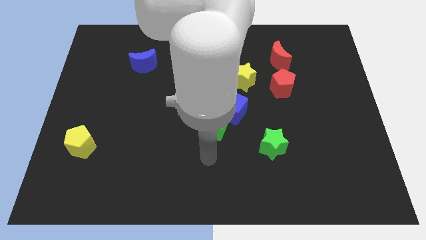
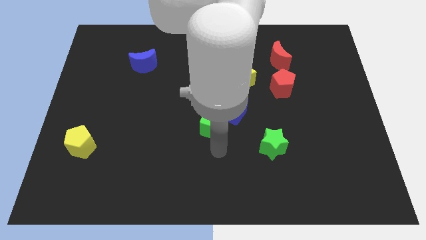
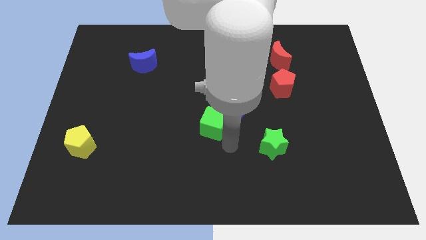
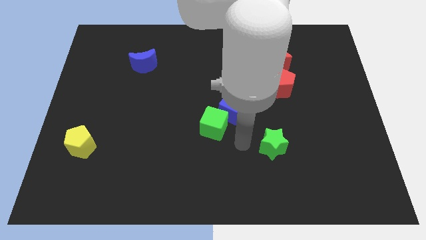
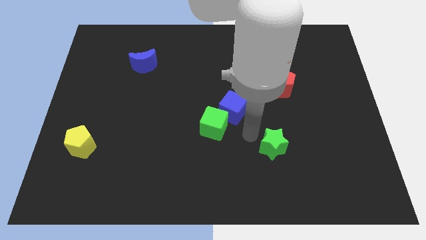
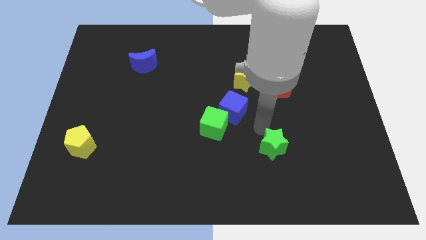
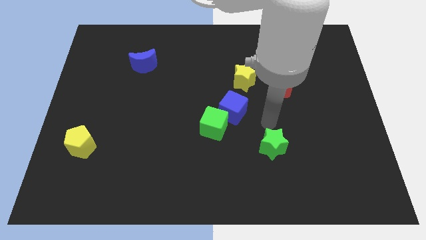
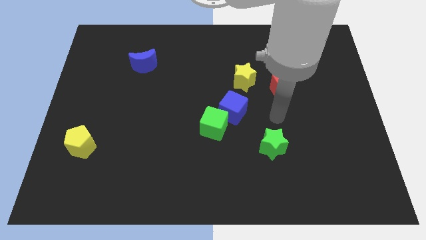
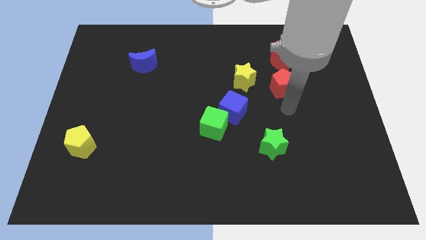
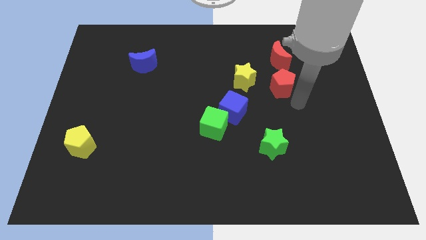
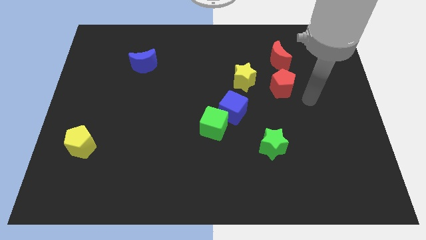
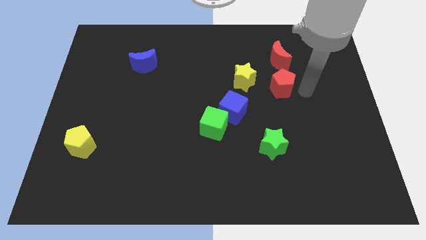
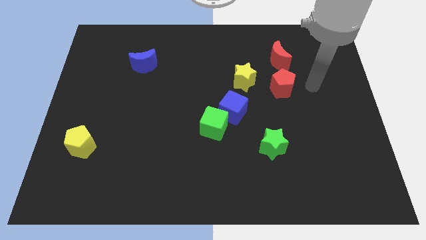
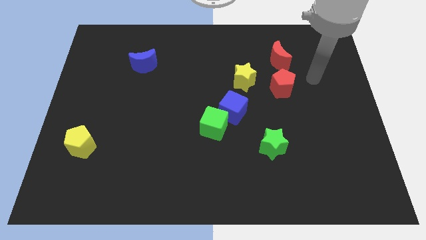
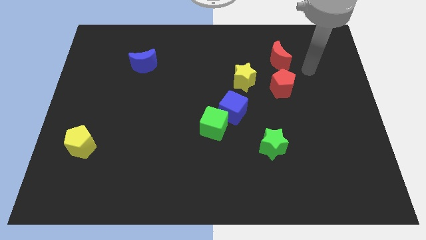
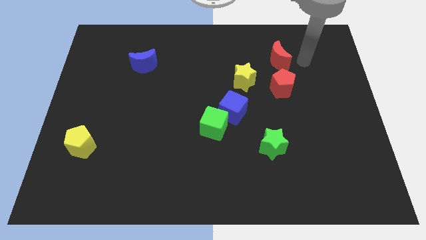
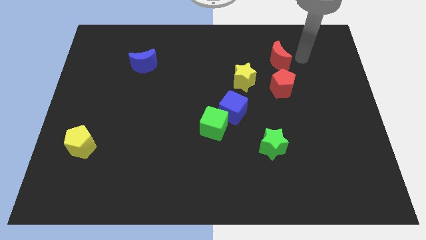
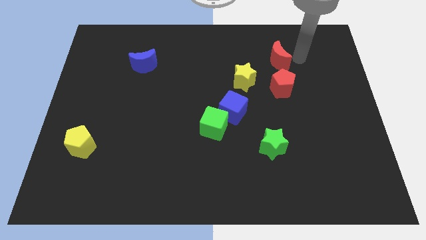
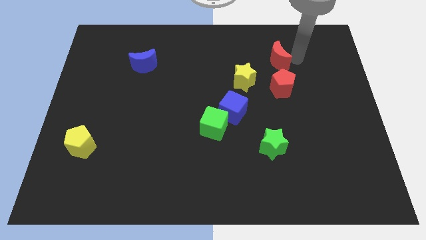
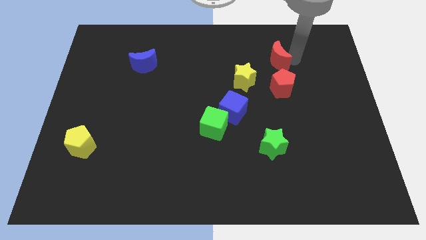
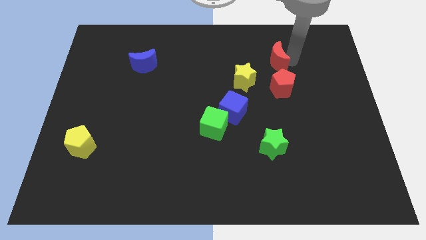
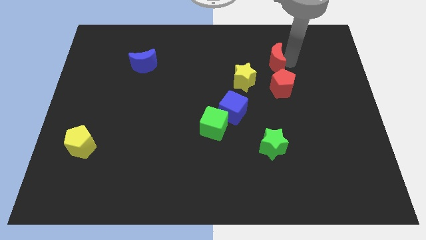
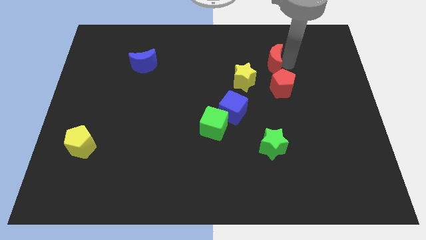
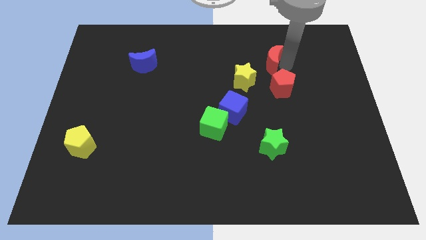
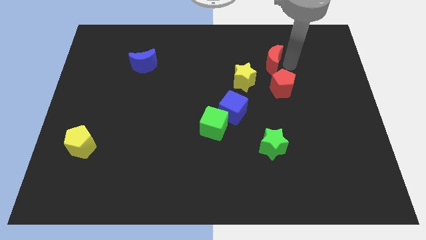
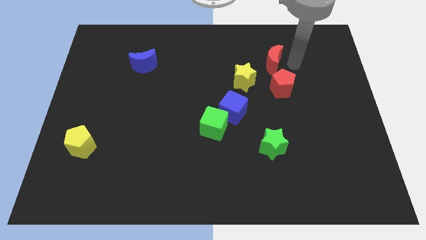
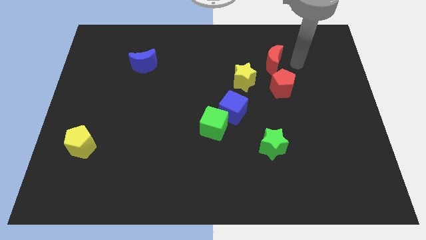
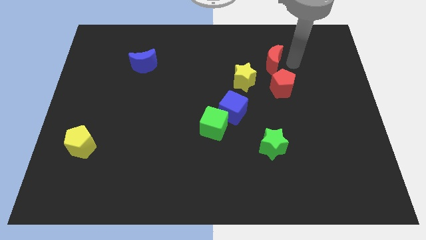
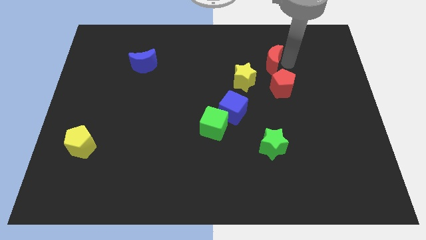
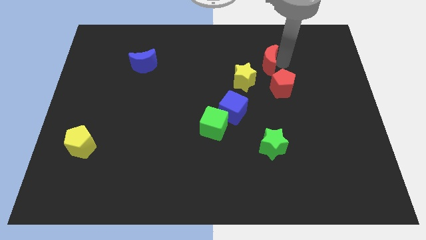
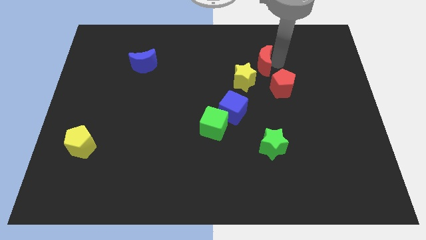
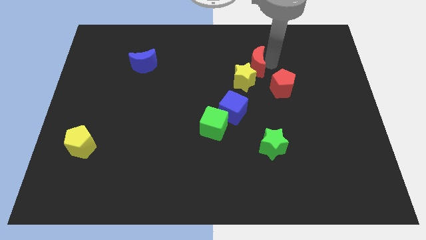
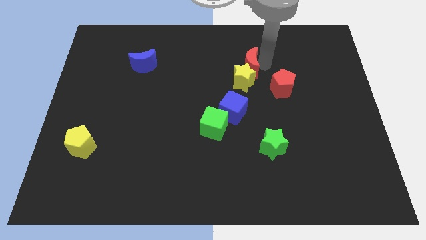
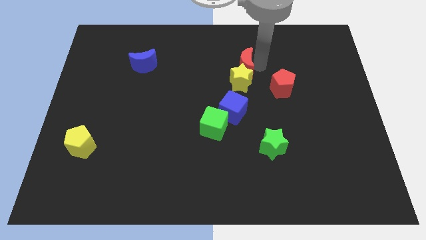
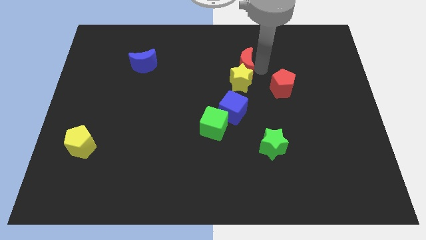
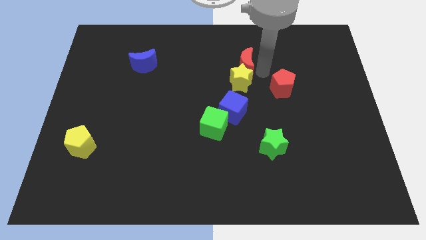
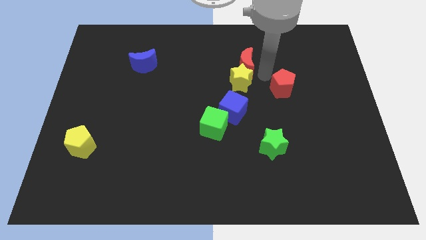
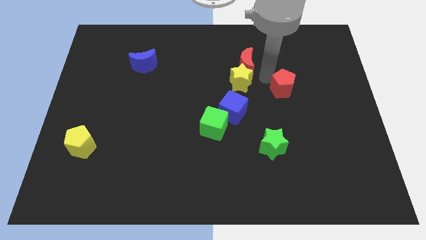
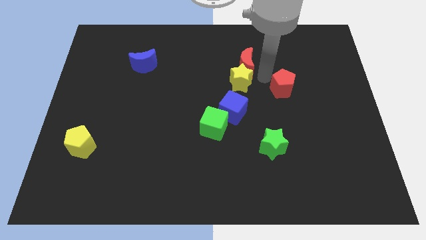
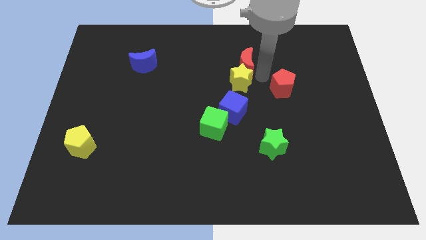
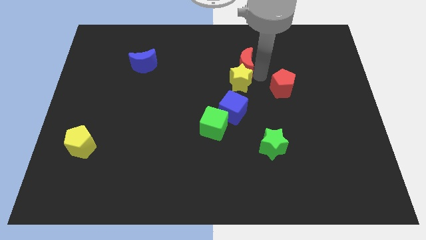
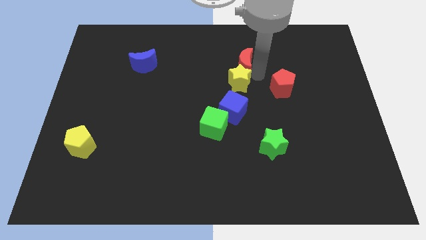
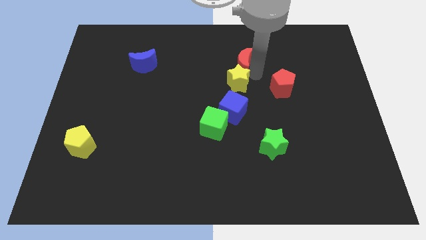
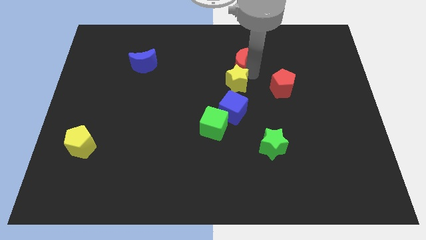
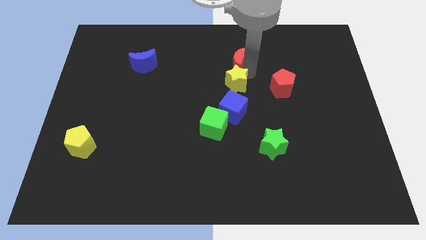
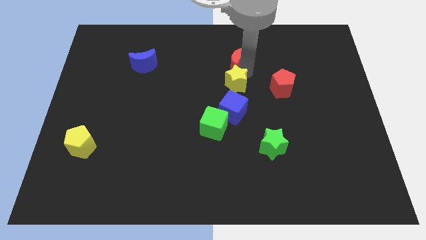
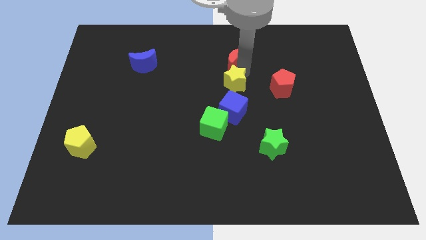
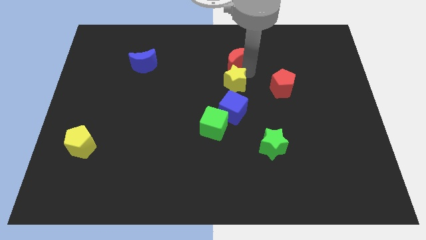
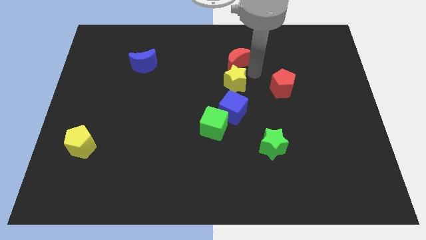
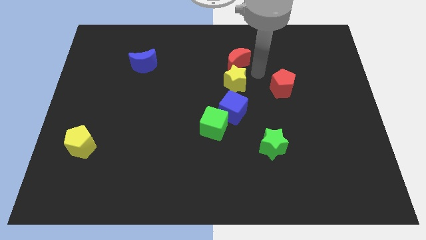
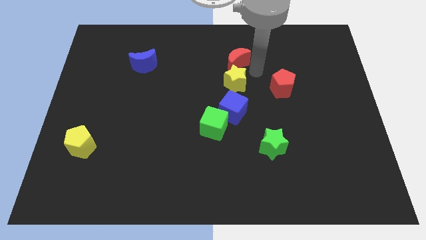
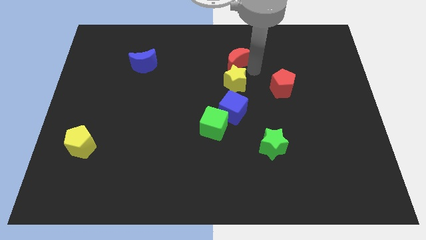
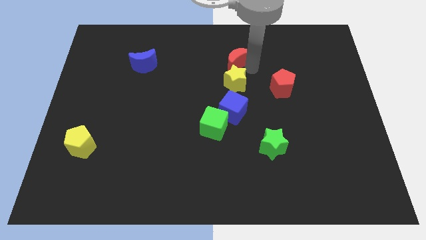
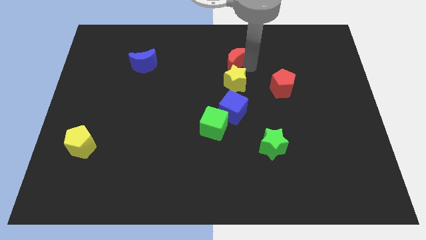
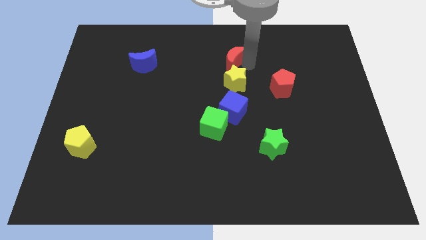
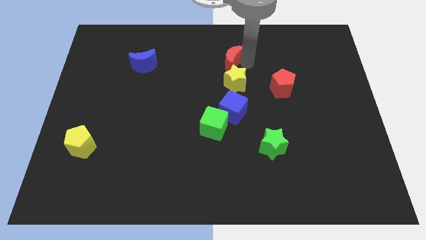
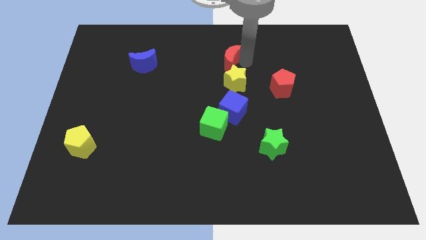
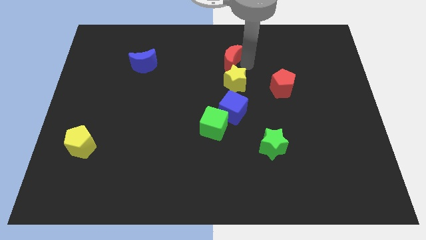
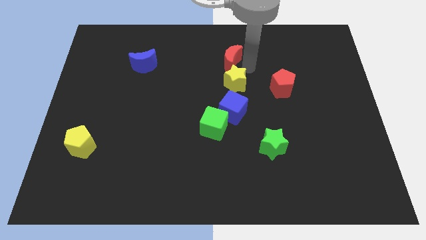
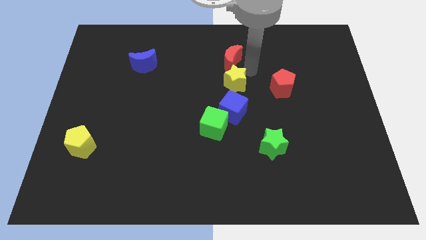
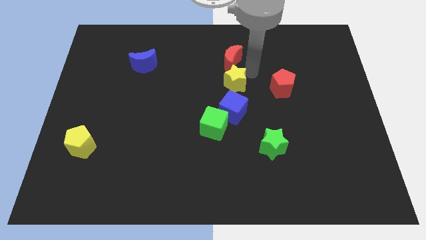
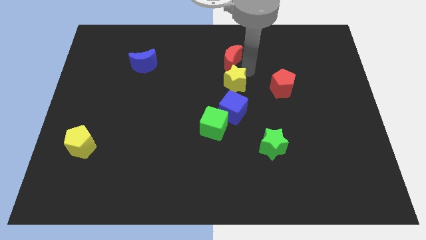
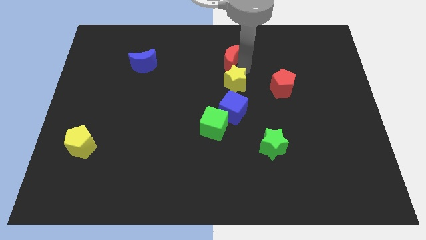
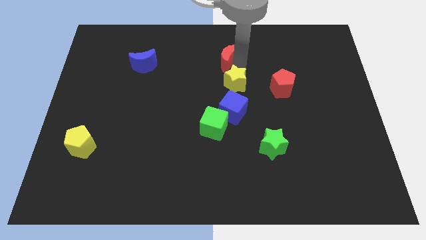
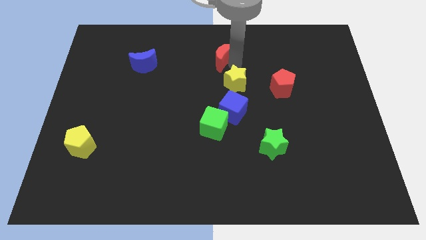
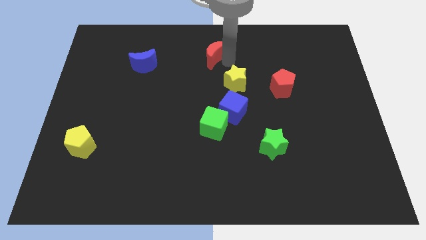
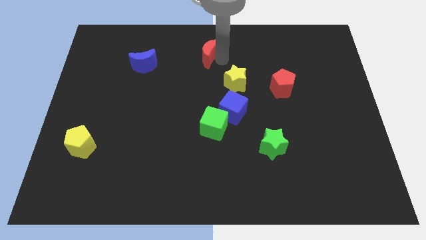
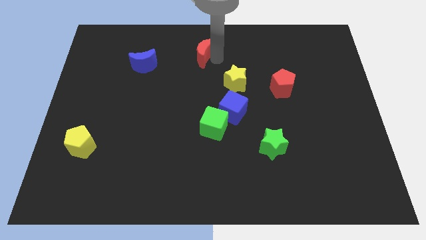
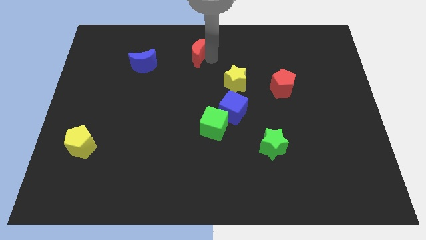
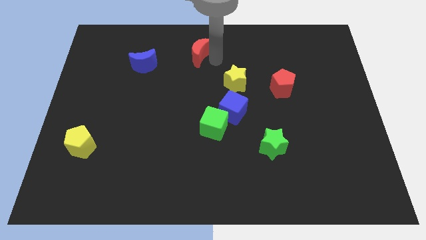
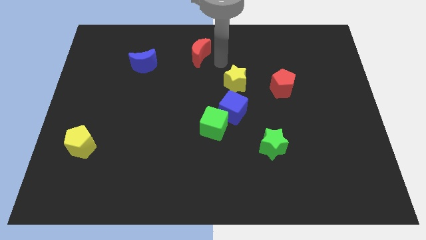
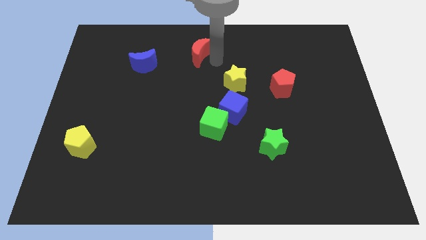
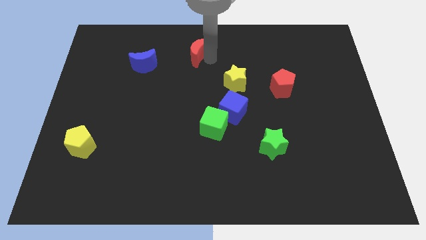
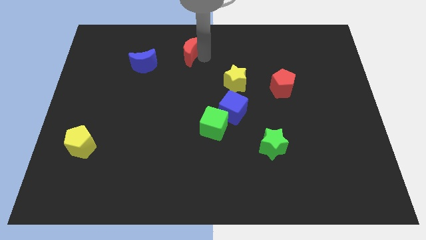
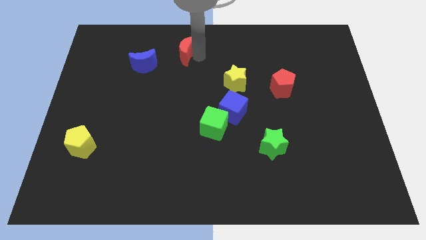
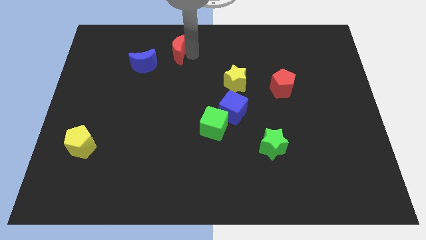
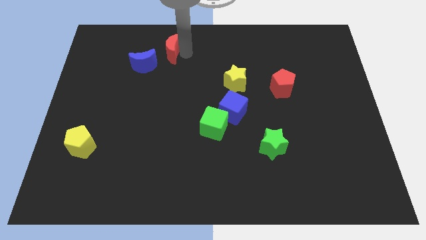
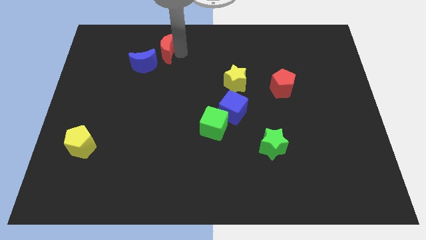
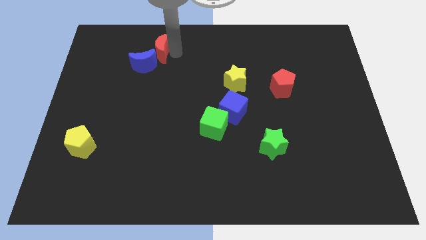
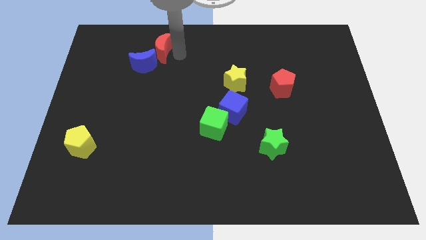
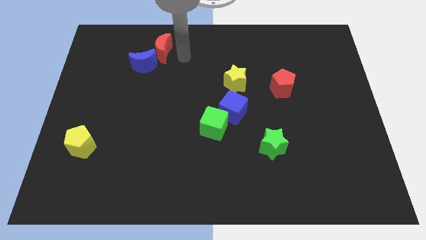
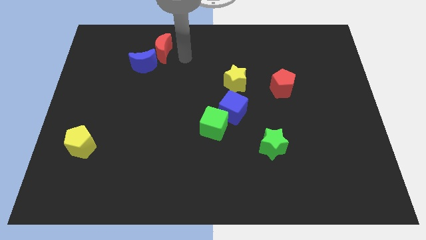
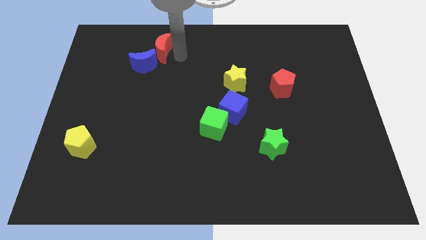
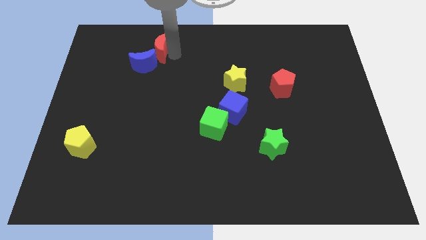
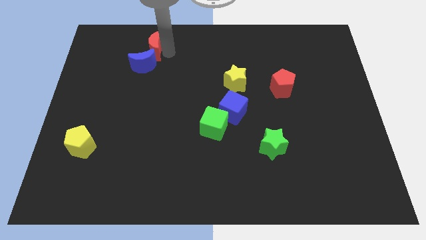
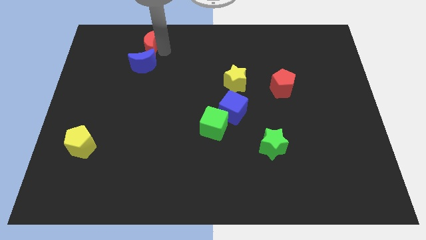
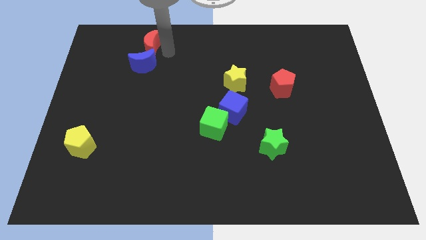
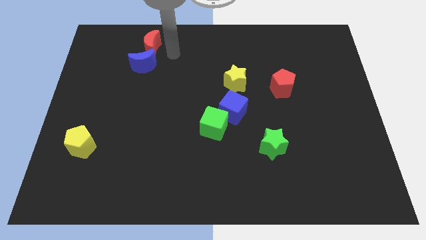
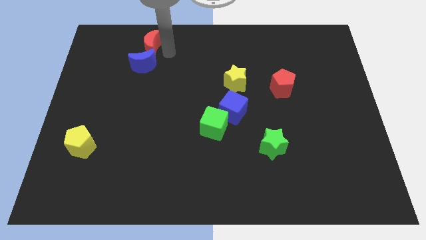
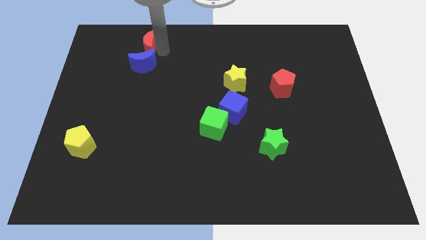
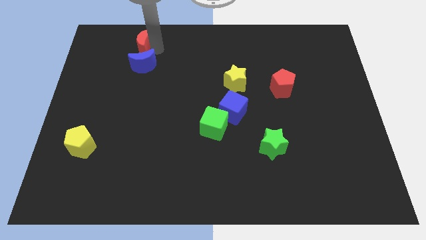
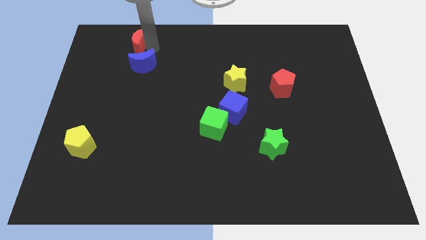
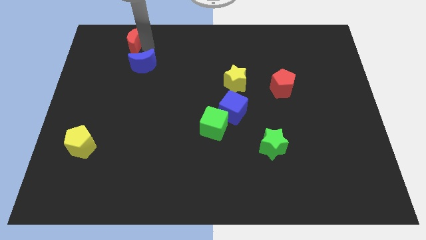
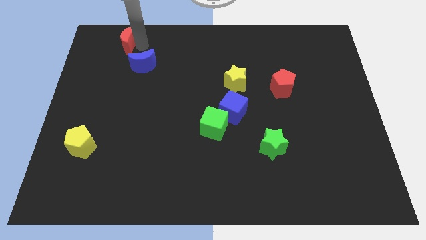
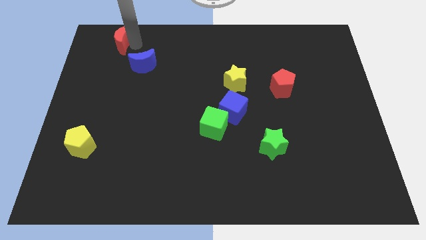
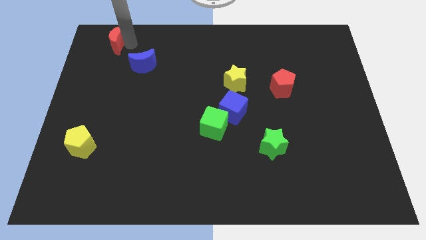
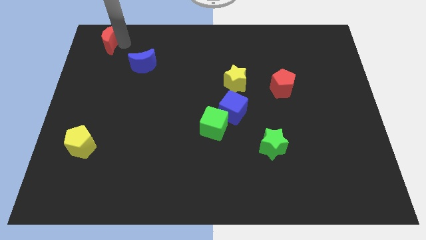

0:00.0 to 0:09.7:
push the red moon to the top left corner
